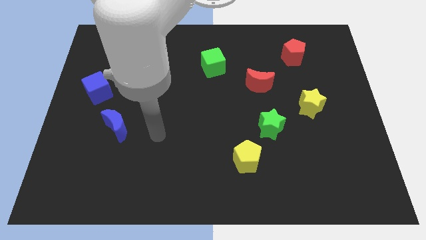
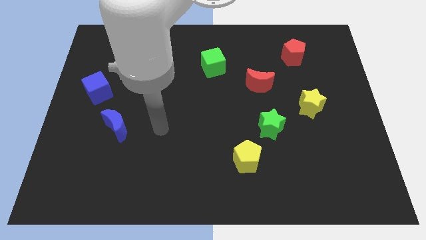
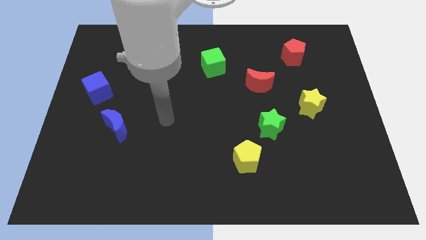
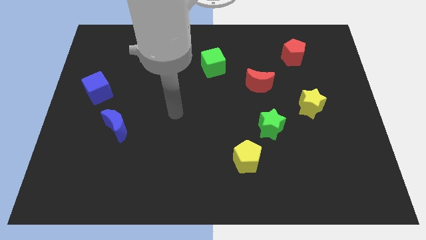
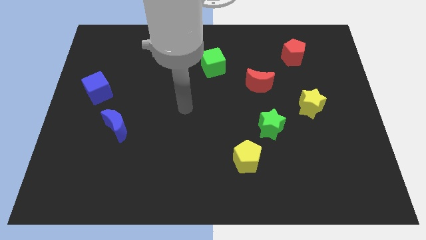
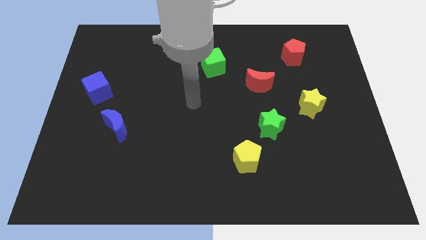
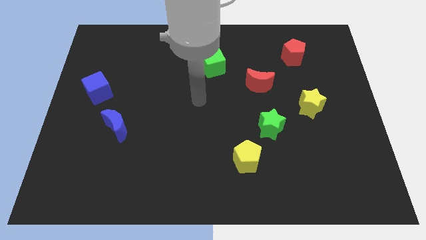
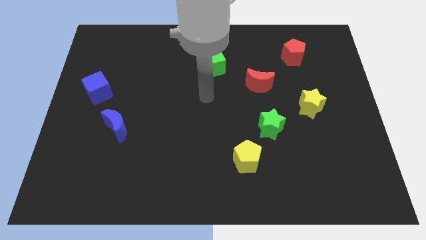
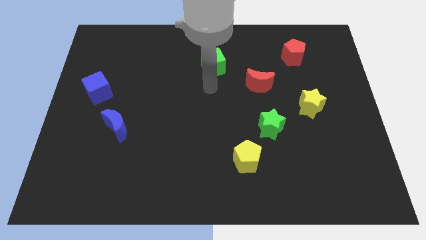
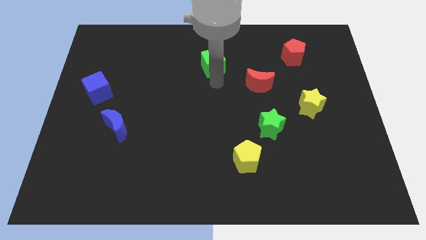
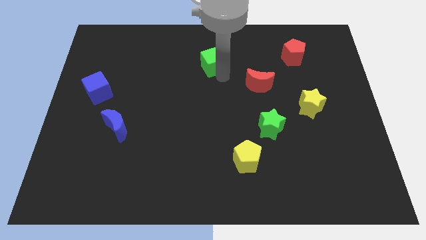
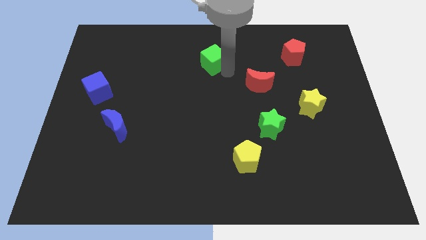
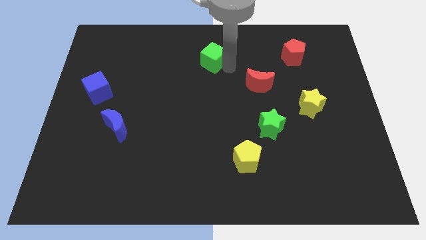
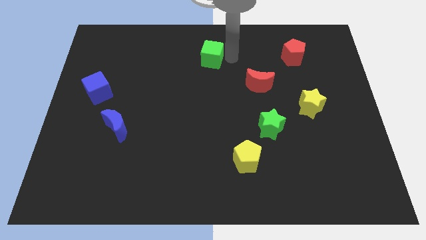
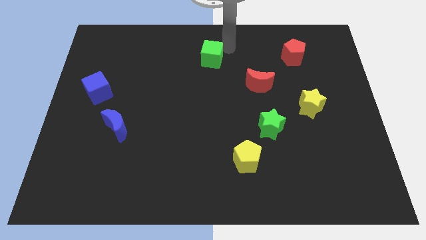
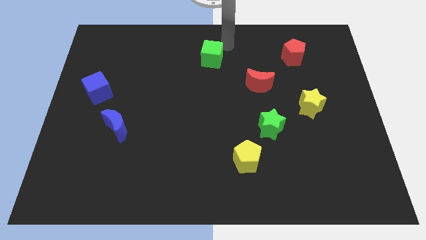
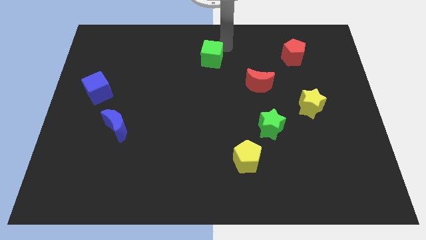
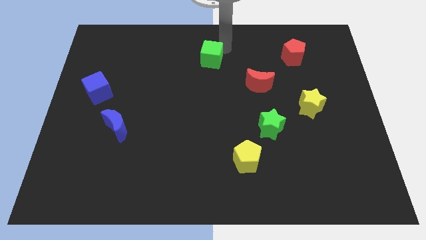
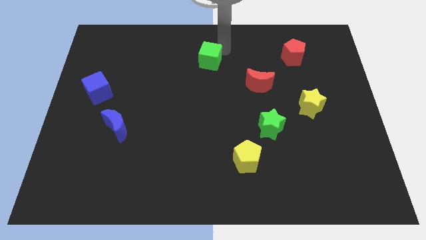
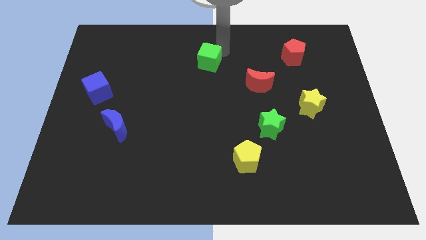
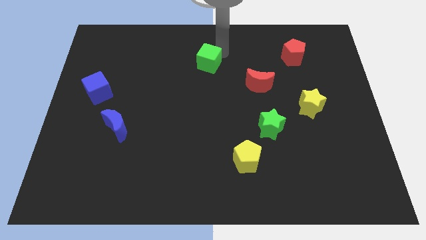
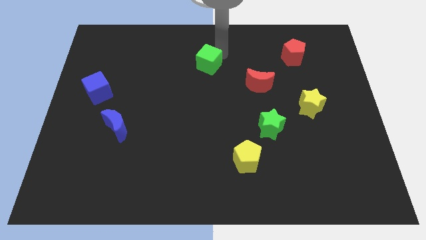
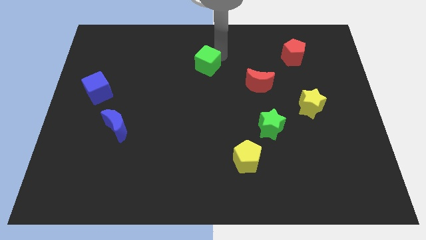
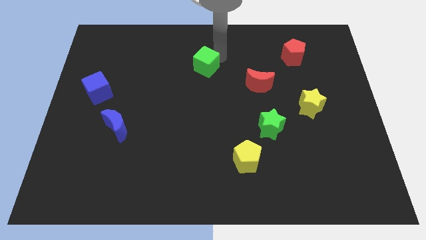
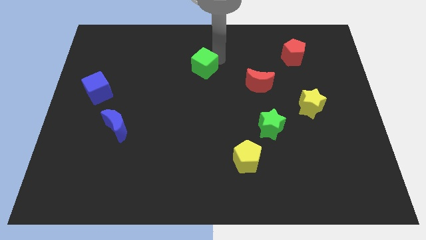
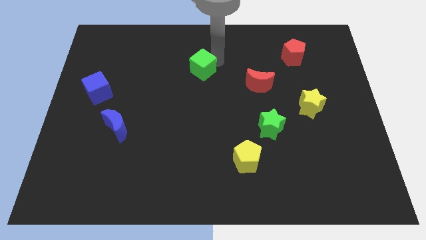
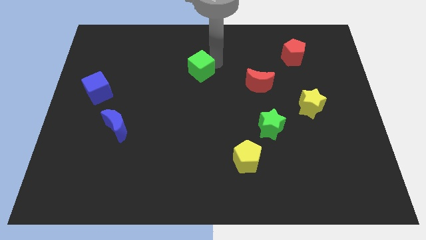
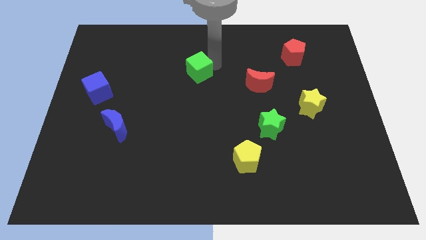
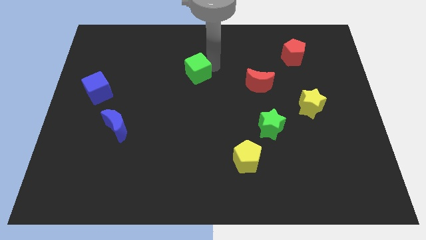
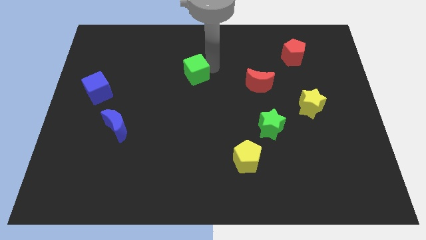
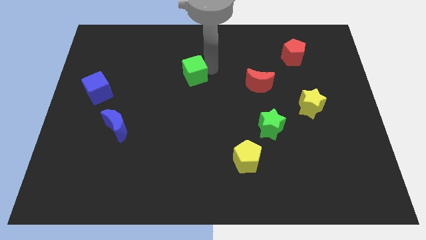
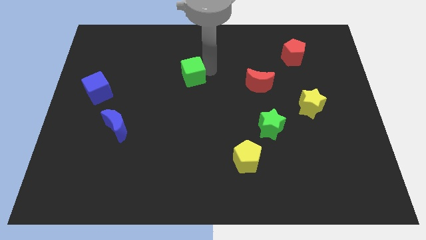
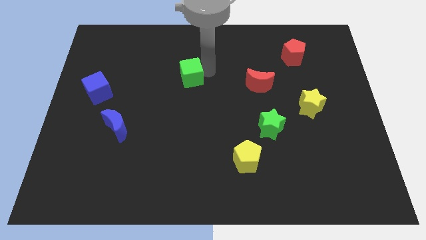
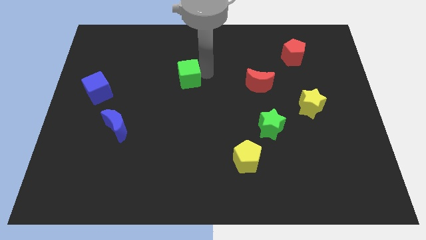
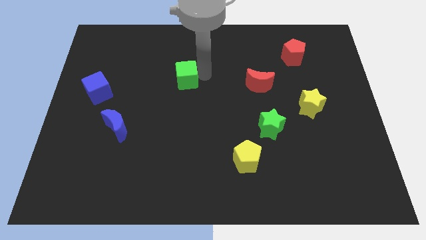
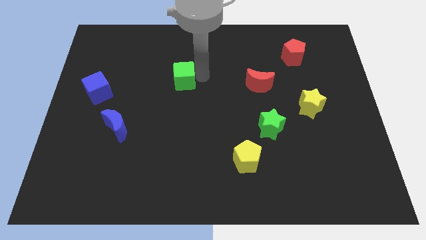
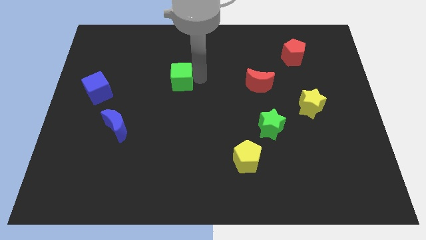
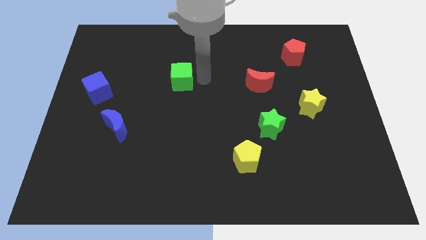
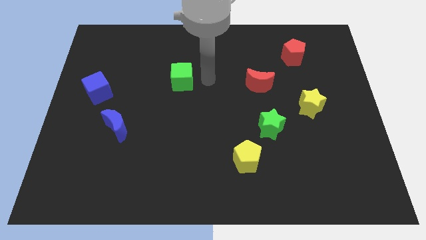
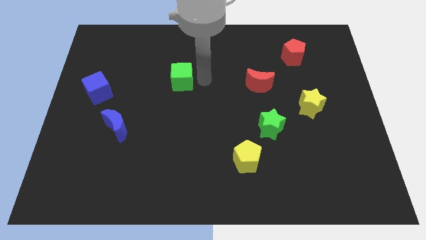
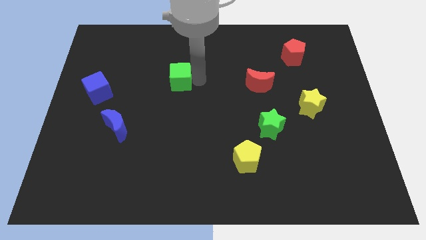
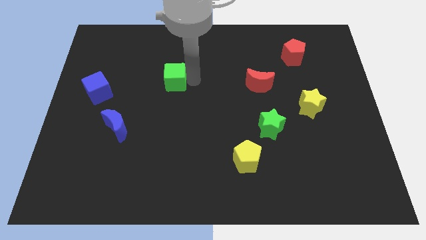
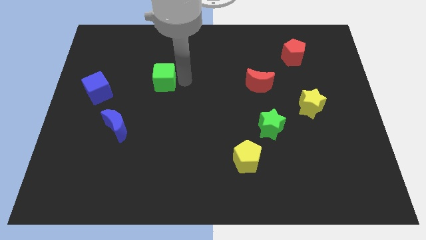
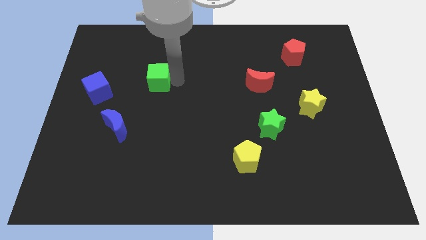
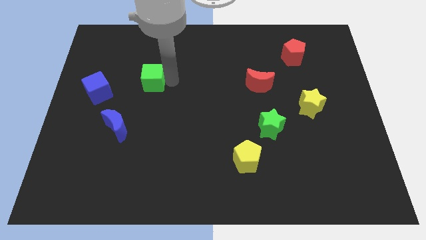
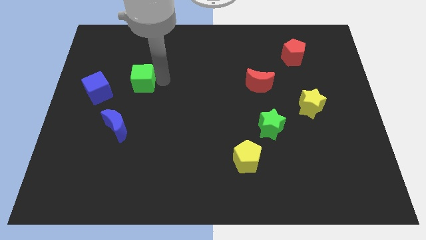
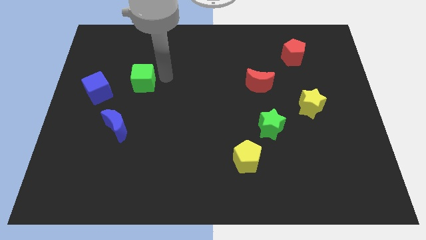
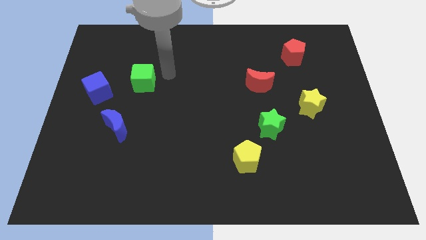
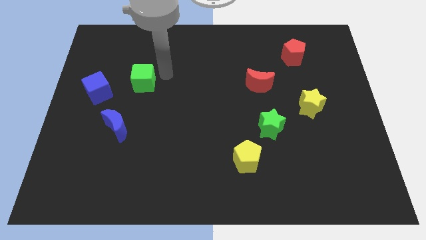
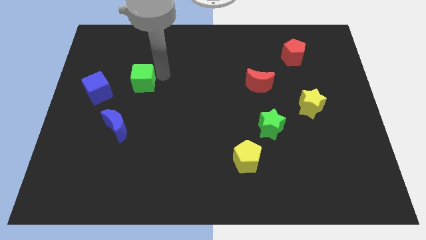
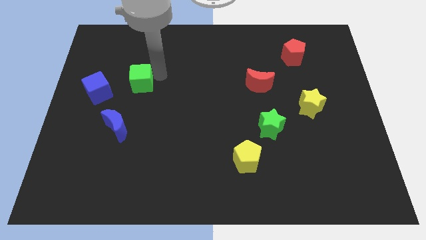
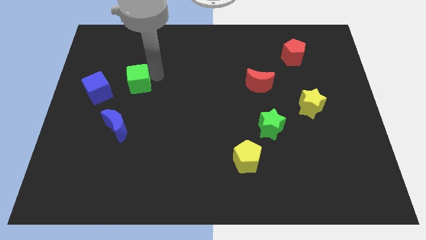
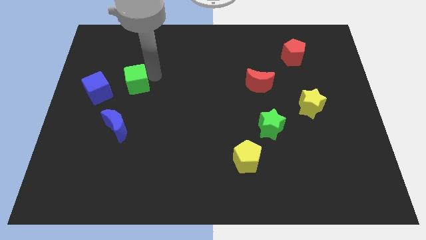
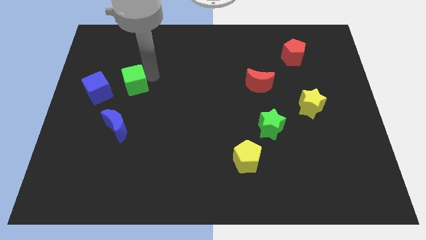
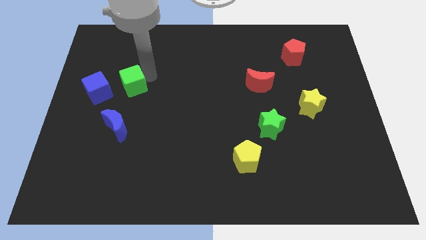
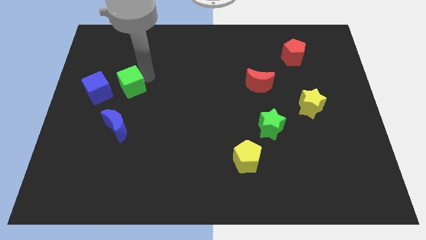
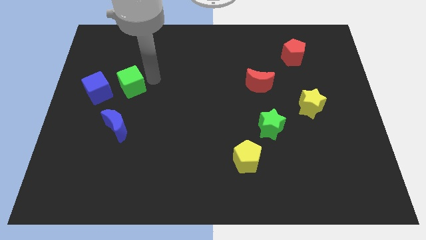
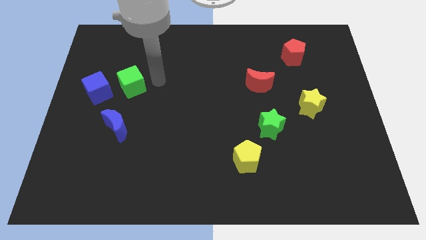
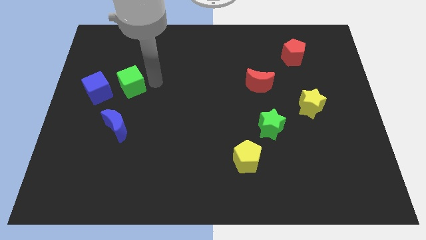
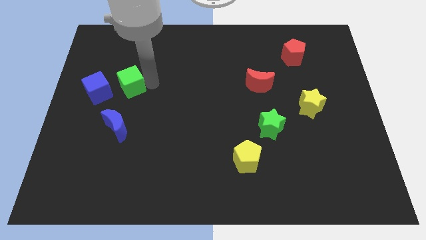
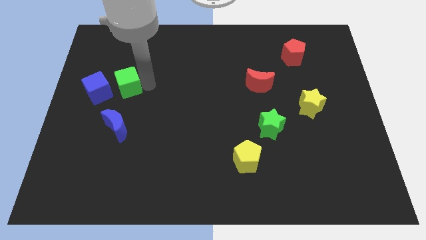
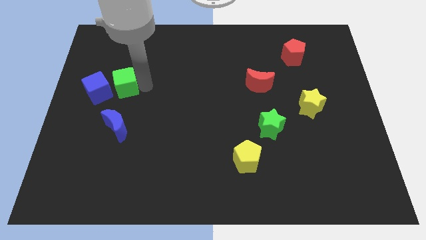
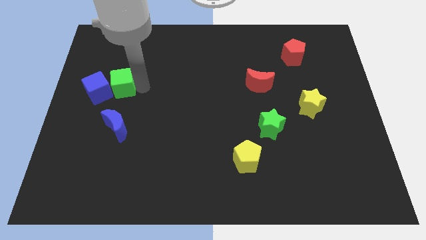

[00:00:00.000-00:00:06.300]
slide the green cube towards the blue cube

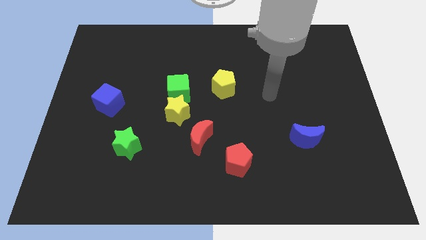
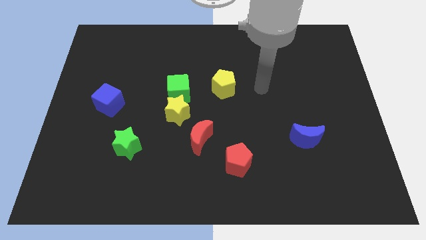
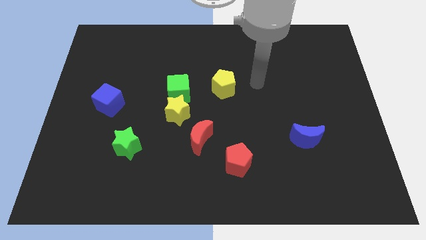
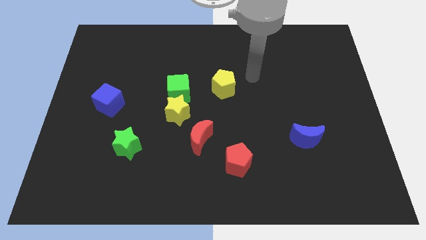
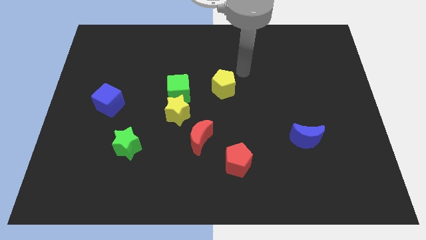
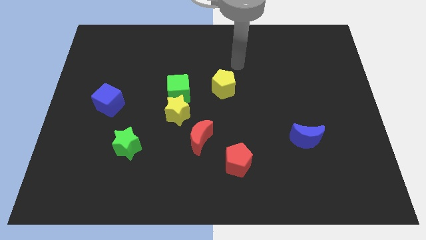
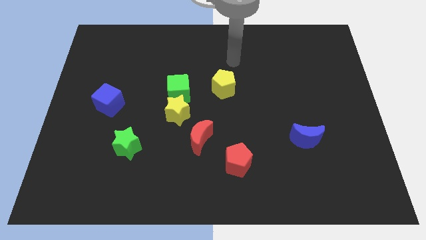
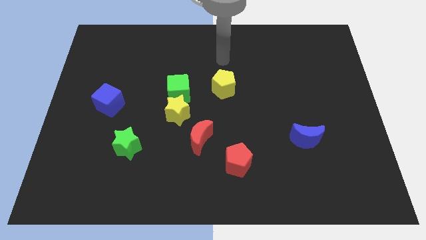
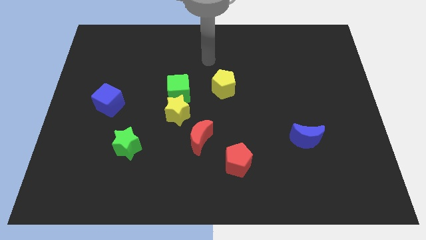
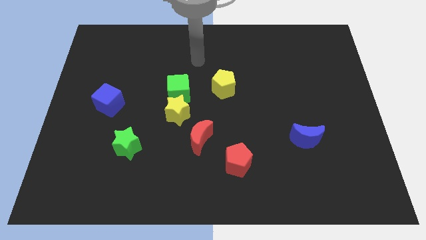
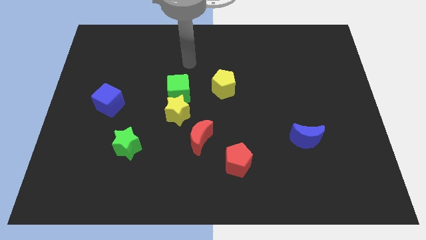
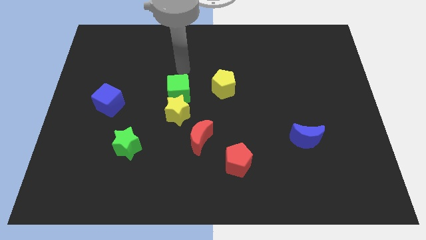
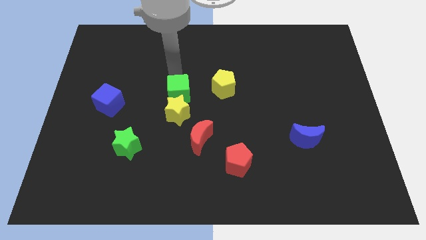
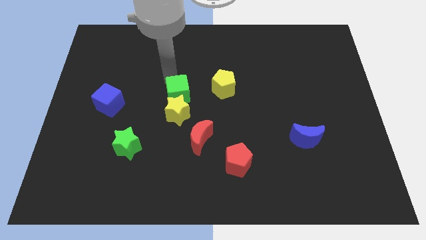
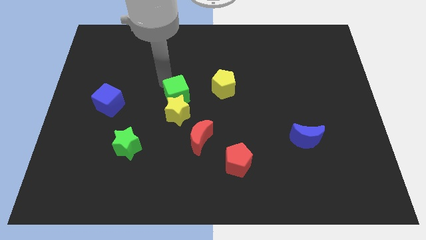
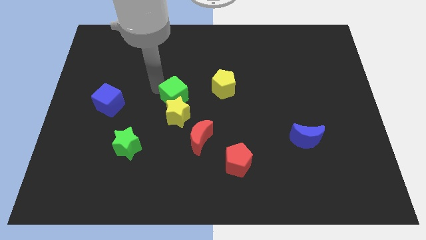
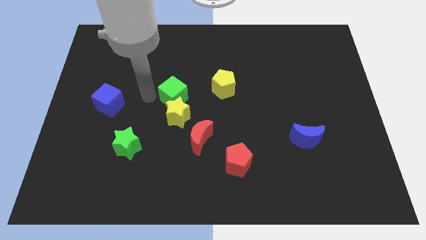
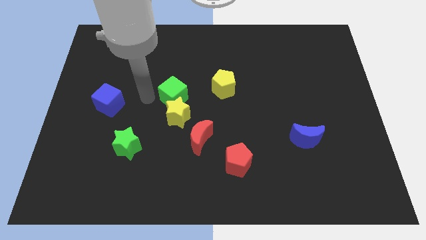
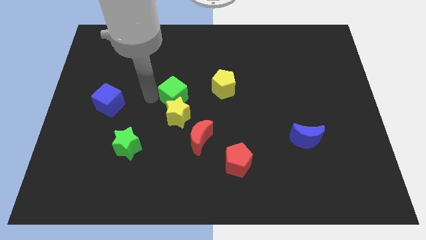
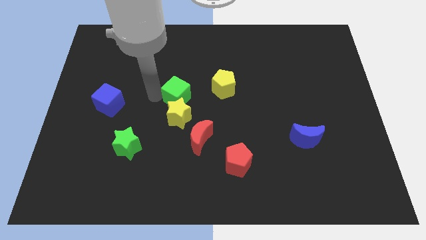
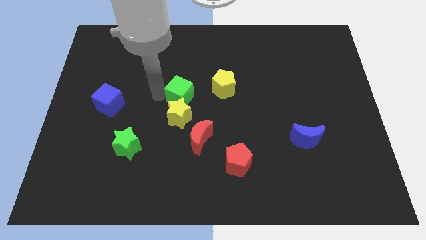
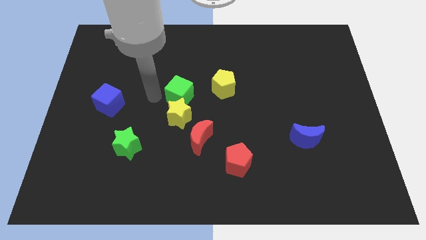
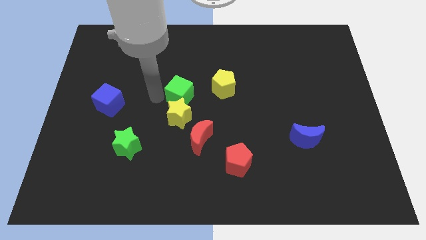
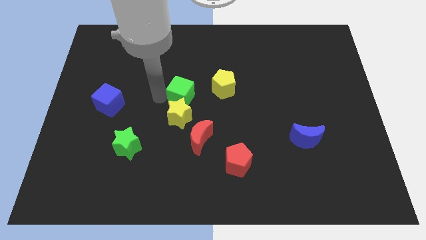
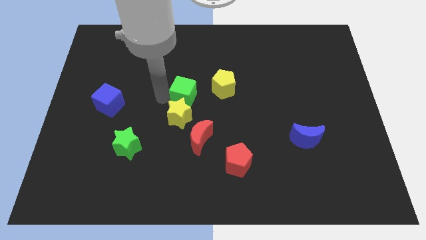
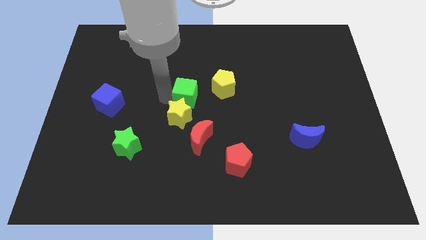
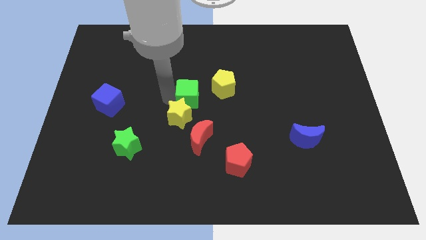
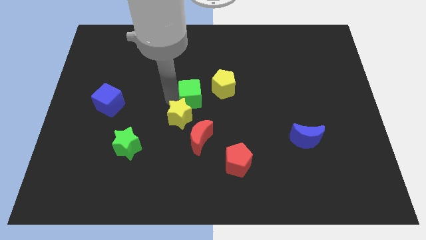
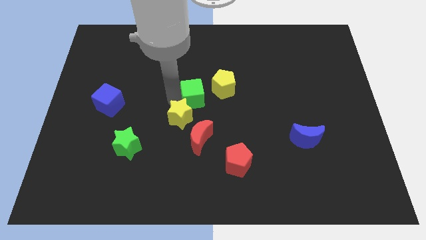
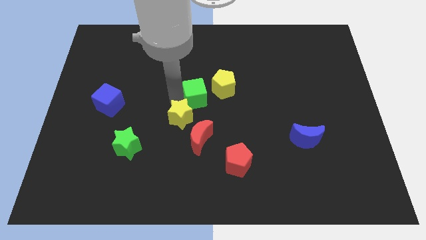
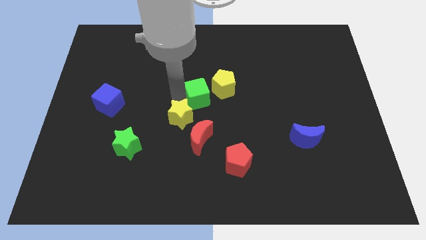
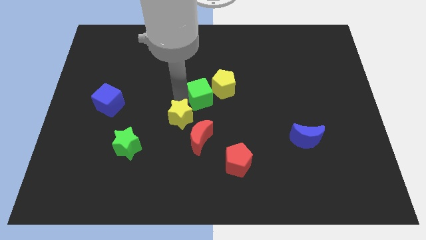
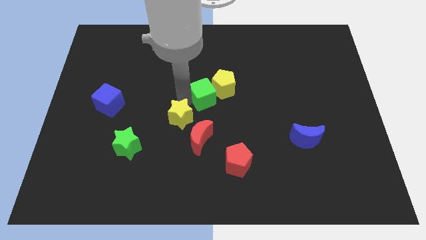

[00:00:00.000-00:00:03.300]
push the green cube next to the yellow pentagon
